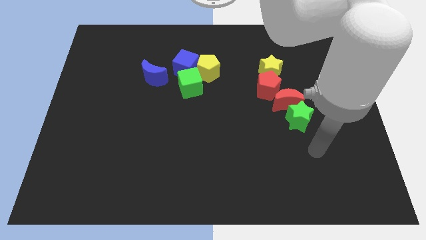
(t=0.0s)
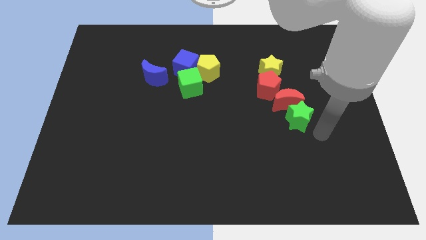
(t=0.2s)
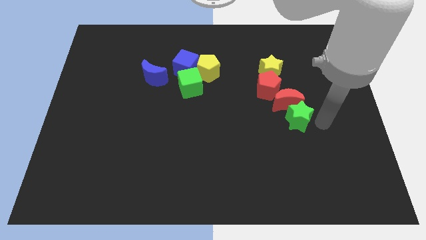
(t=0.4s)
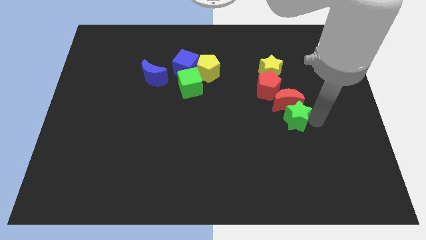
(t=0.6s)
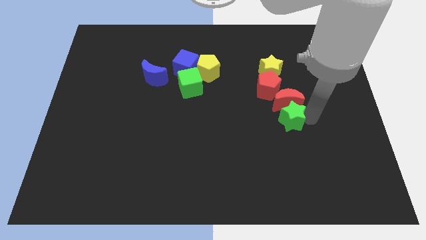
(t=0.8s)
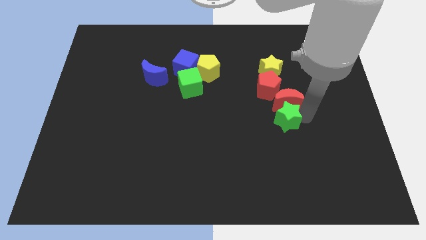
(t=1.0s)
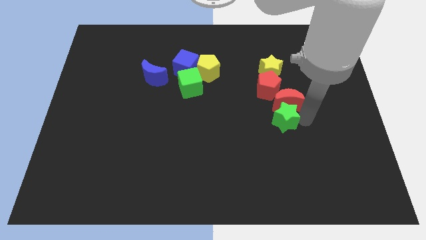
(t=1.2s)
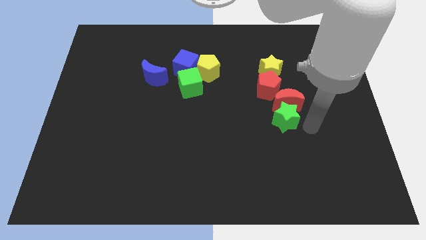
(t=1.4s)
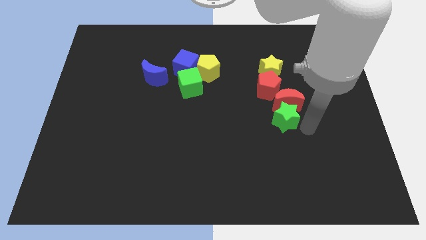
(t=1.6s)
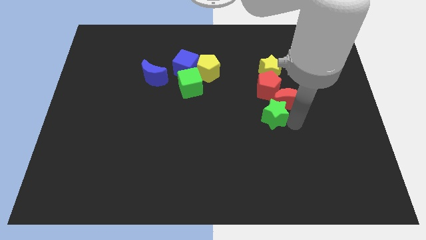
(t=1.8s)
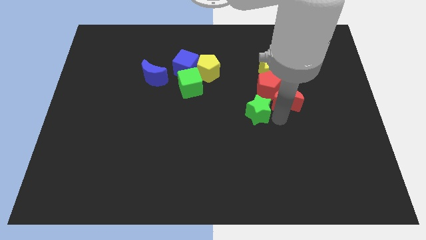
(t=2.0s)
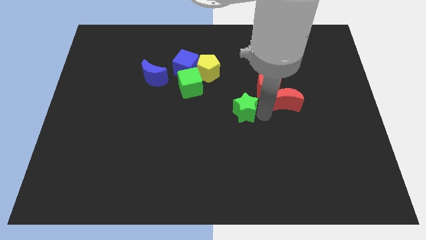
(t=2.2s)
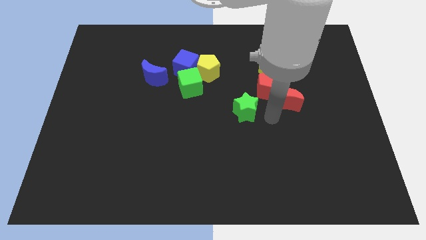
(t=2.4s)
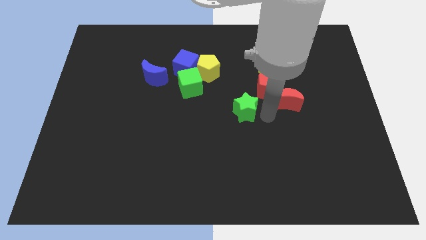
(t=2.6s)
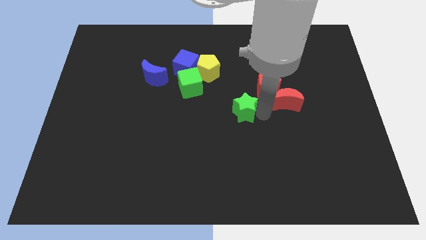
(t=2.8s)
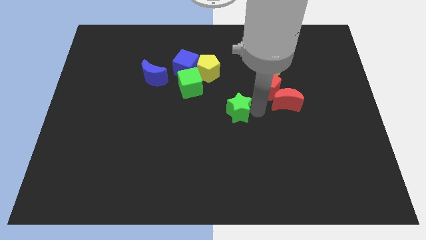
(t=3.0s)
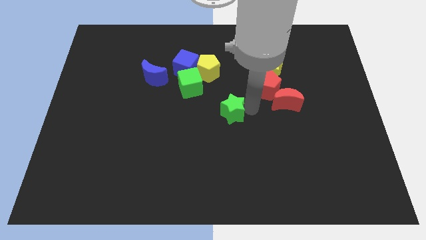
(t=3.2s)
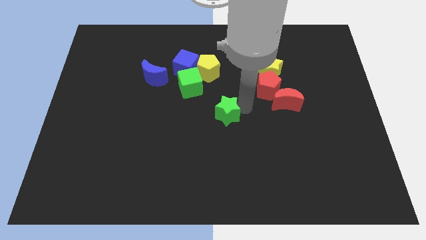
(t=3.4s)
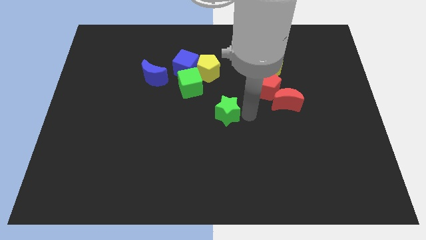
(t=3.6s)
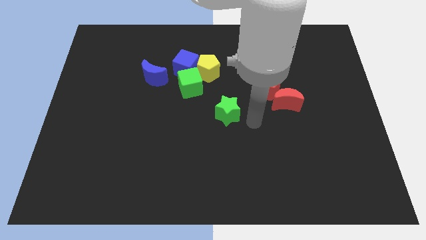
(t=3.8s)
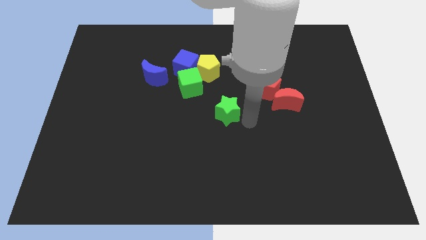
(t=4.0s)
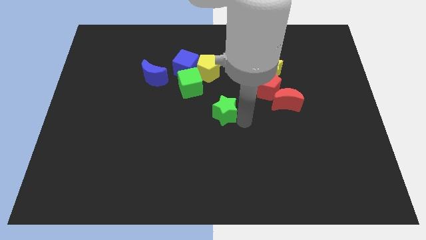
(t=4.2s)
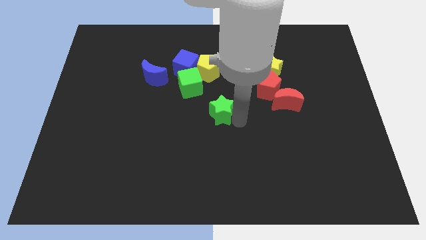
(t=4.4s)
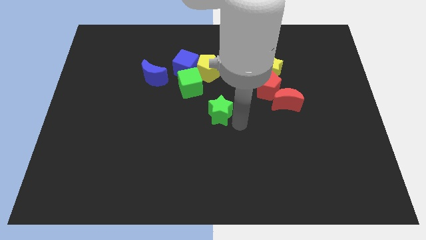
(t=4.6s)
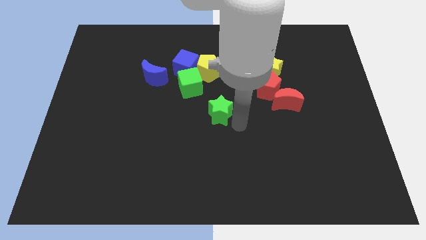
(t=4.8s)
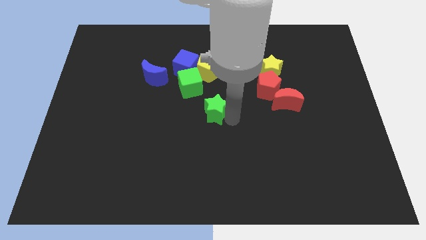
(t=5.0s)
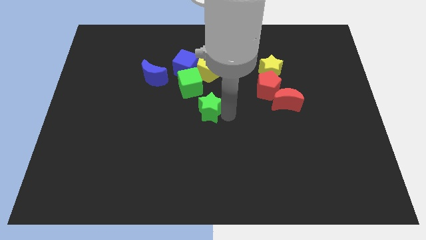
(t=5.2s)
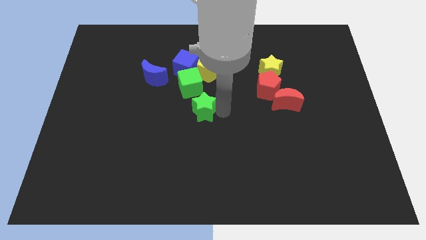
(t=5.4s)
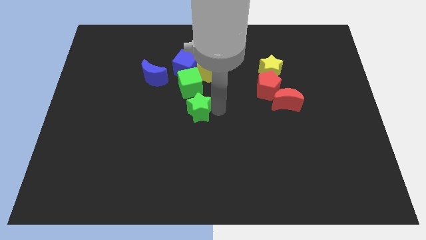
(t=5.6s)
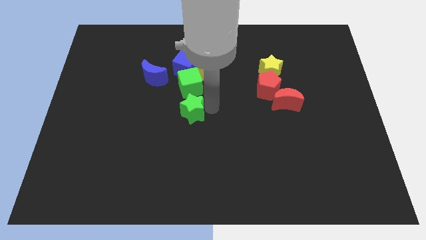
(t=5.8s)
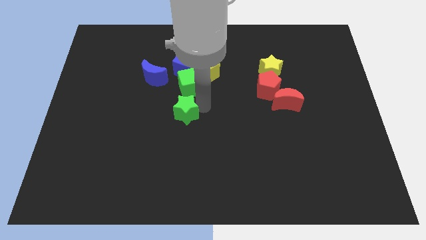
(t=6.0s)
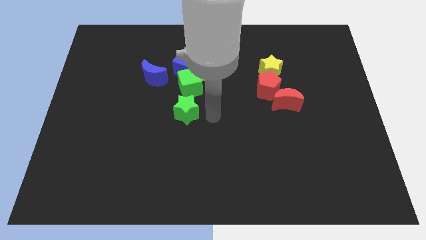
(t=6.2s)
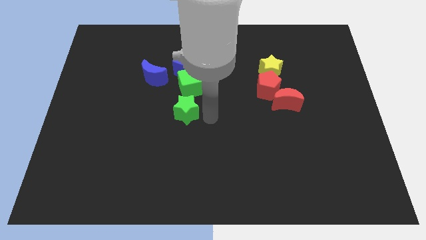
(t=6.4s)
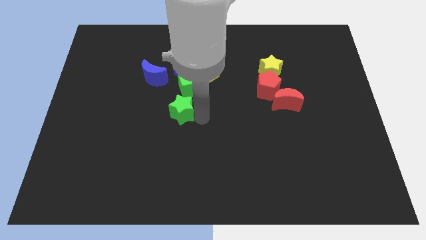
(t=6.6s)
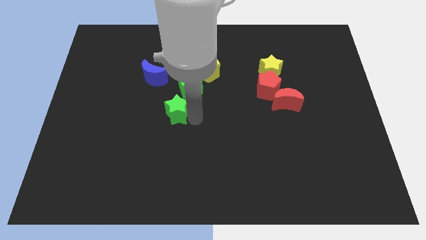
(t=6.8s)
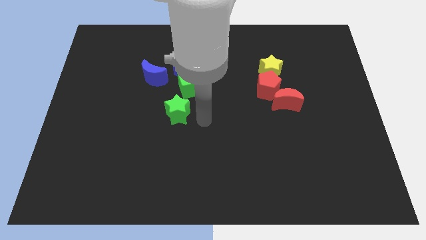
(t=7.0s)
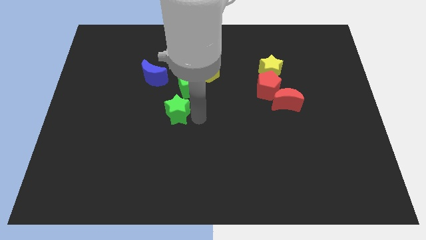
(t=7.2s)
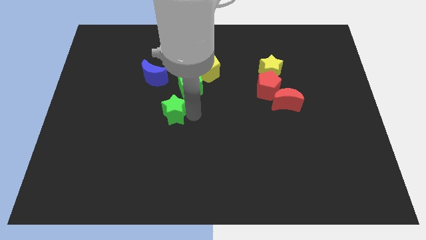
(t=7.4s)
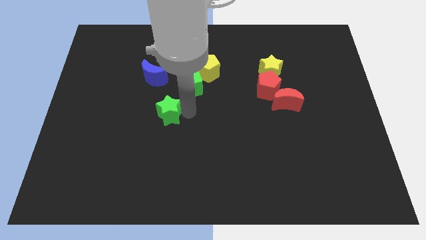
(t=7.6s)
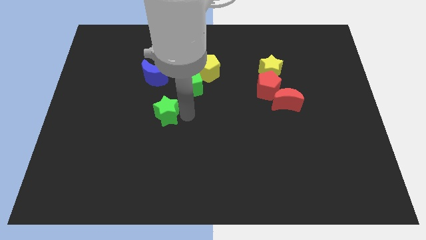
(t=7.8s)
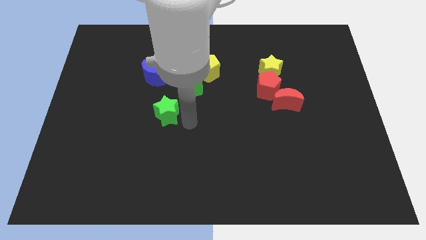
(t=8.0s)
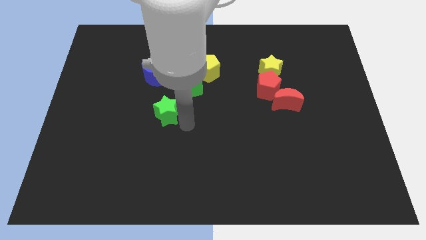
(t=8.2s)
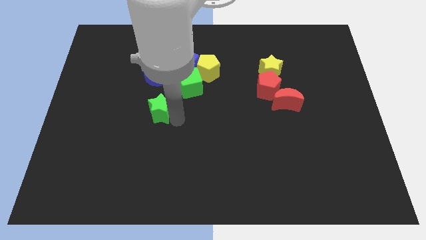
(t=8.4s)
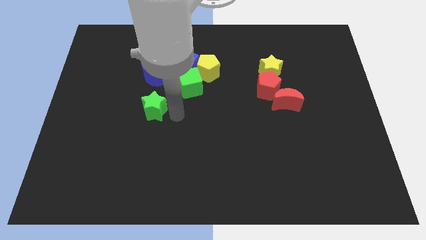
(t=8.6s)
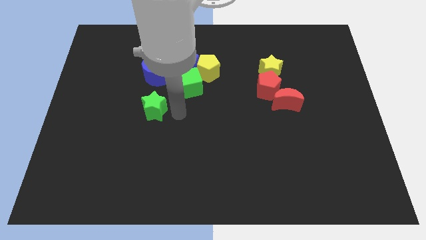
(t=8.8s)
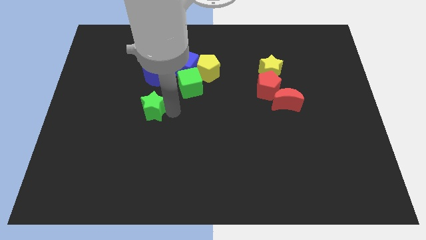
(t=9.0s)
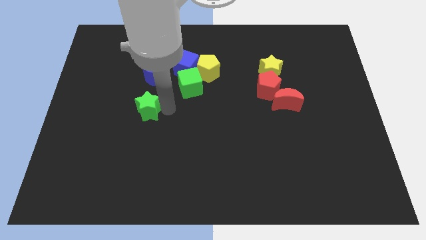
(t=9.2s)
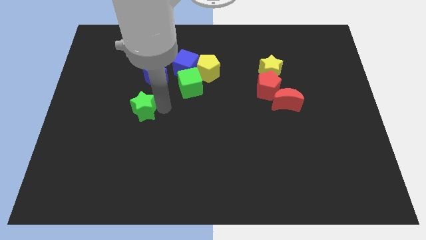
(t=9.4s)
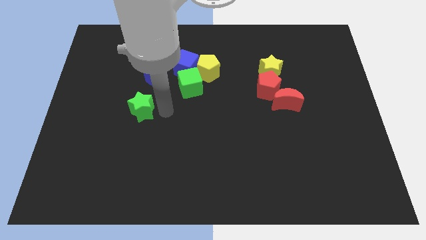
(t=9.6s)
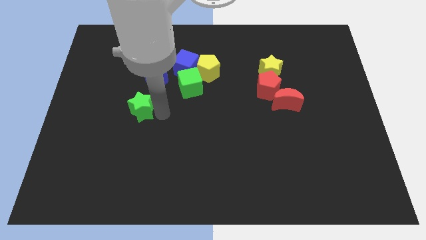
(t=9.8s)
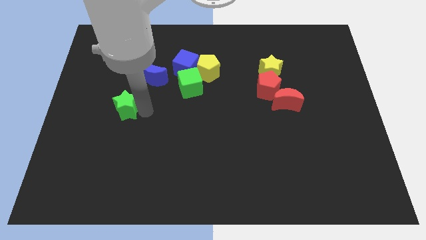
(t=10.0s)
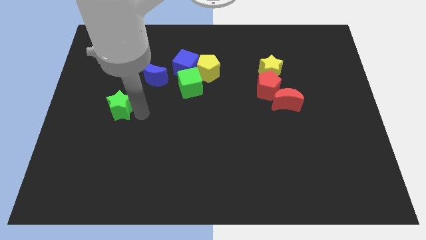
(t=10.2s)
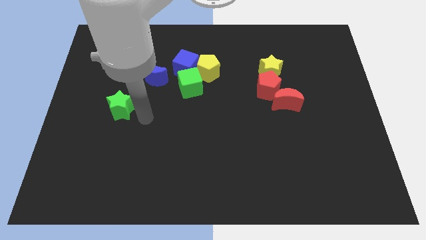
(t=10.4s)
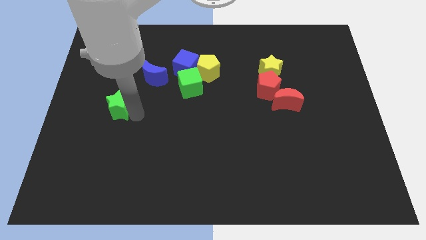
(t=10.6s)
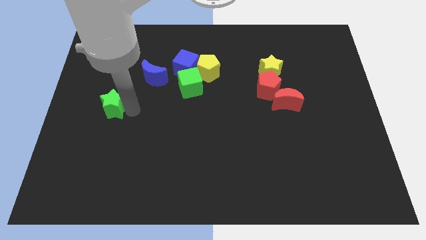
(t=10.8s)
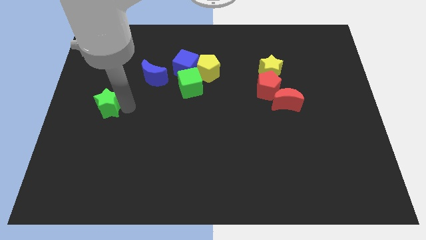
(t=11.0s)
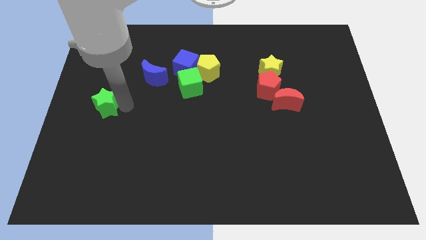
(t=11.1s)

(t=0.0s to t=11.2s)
slide the green star to the left side of the board

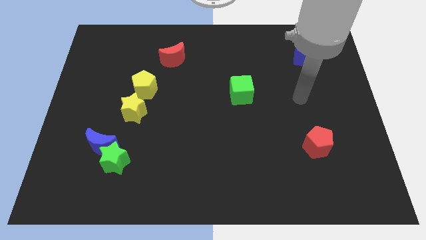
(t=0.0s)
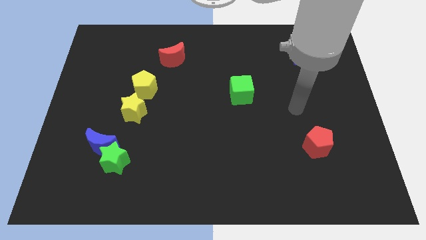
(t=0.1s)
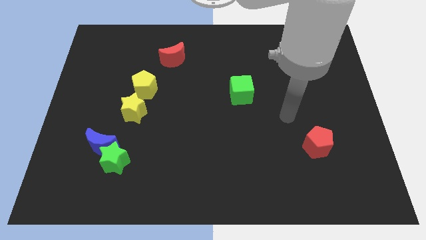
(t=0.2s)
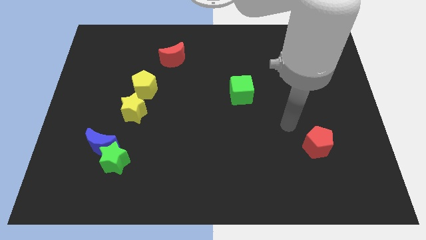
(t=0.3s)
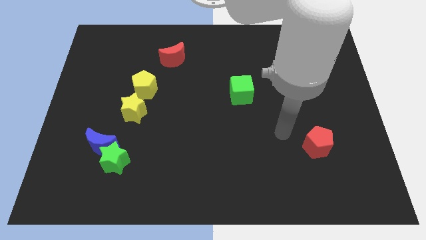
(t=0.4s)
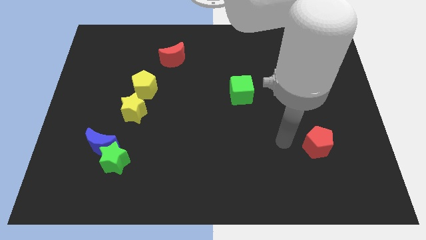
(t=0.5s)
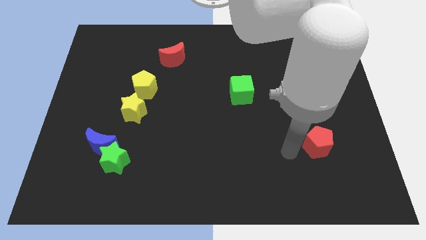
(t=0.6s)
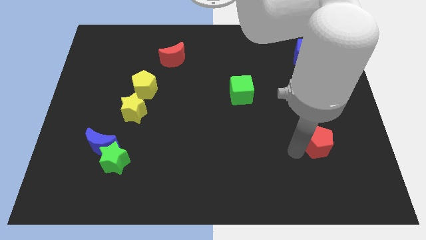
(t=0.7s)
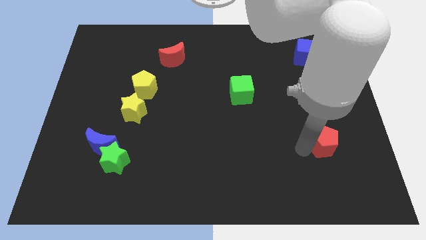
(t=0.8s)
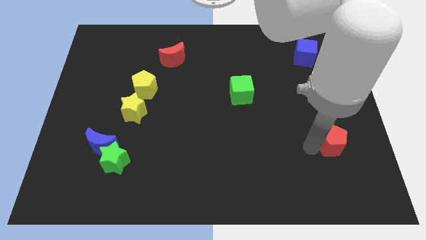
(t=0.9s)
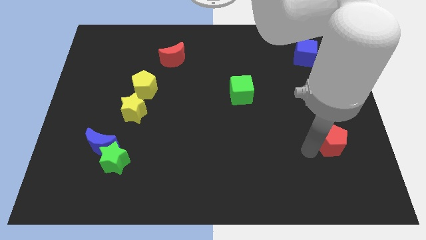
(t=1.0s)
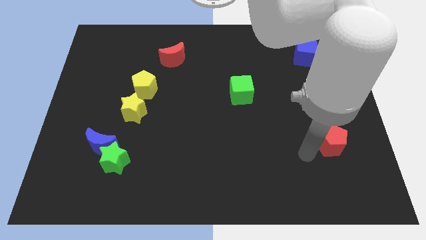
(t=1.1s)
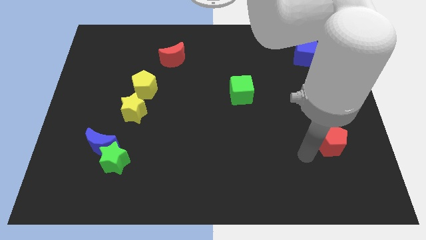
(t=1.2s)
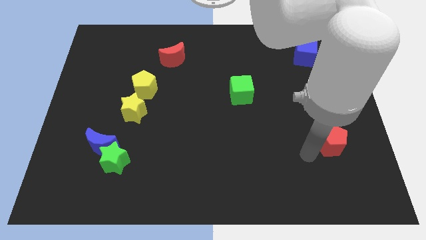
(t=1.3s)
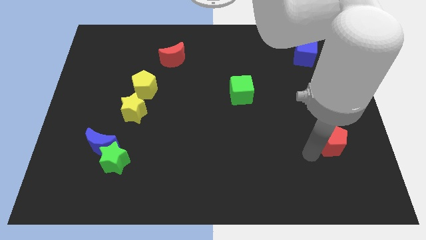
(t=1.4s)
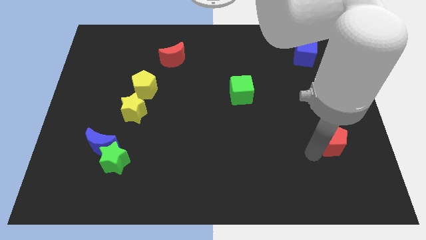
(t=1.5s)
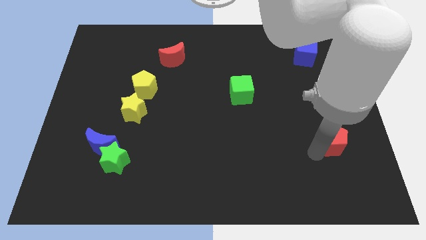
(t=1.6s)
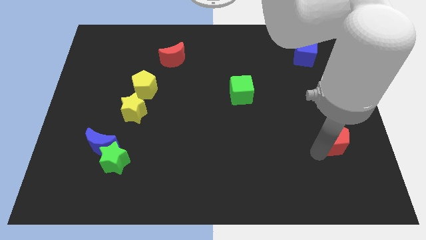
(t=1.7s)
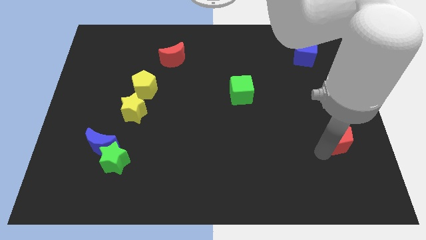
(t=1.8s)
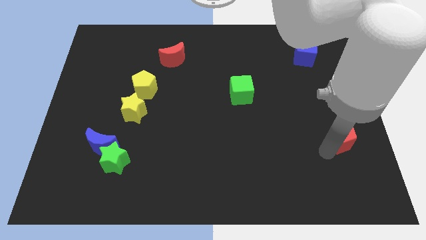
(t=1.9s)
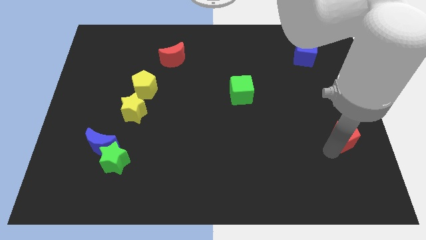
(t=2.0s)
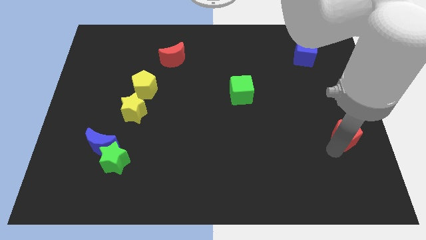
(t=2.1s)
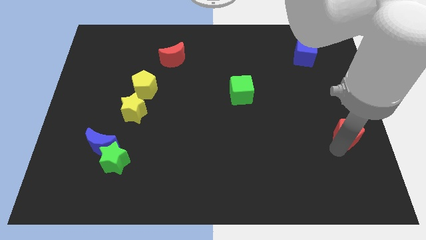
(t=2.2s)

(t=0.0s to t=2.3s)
push the red pentagon to the right side of the board
